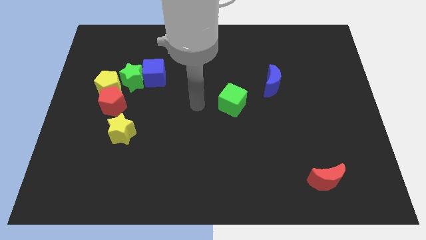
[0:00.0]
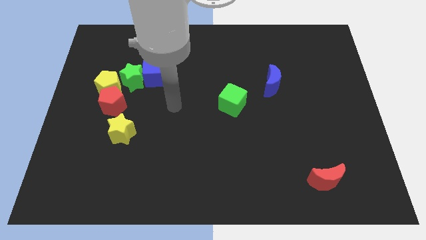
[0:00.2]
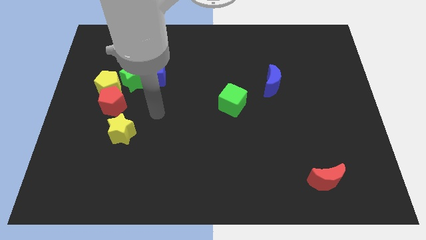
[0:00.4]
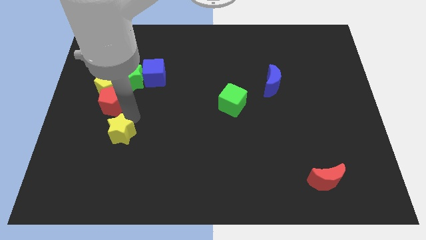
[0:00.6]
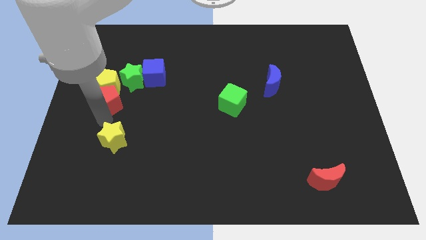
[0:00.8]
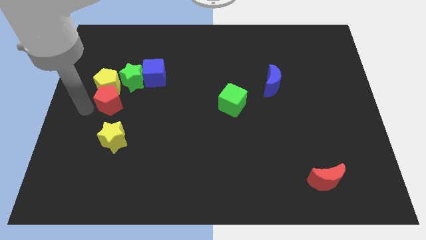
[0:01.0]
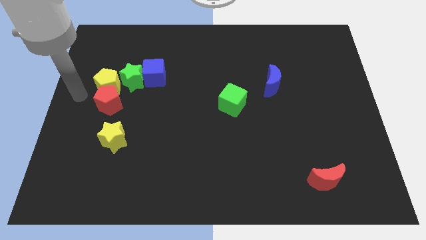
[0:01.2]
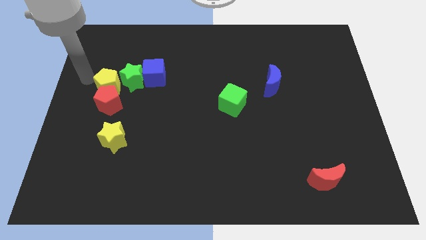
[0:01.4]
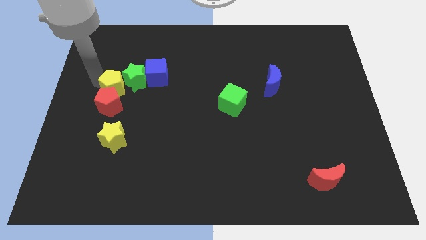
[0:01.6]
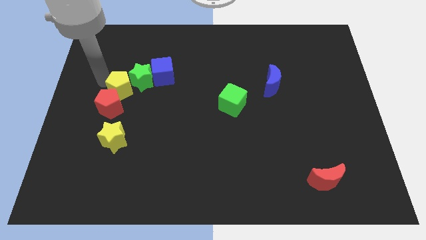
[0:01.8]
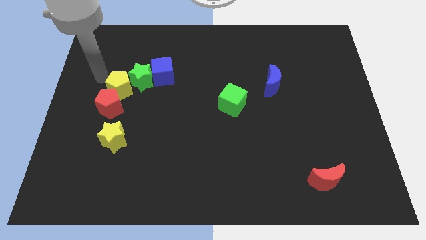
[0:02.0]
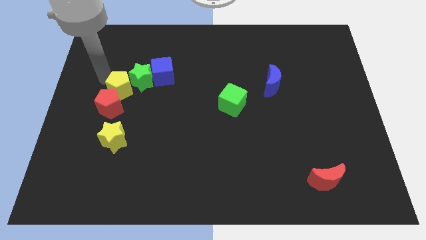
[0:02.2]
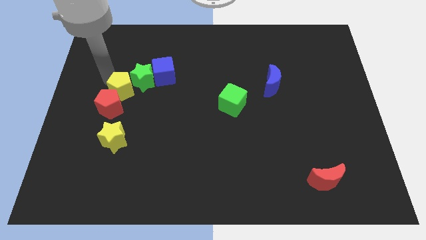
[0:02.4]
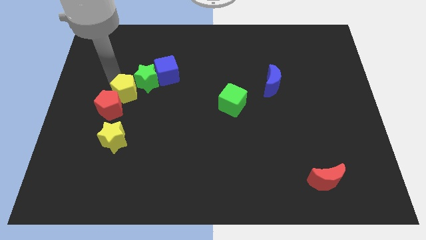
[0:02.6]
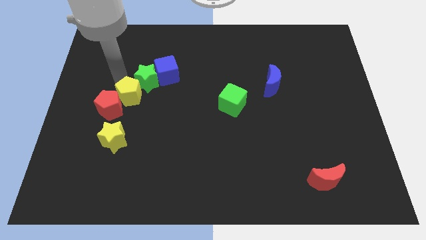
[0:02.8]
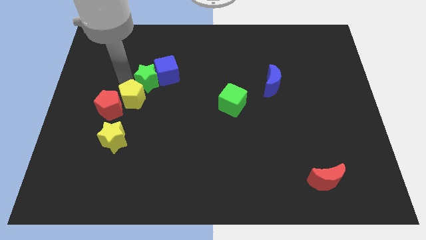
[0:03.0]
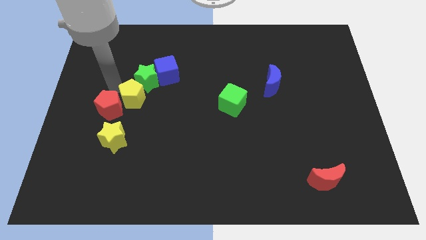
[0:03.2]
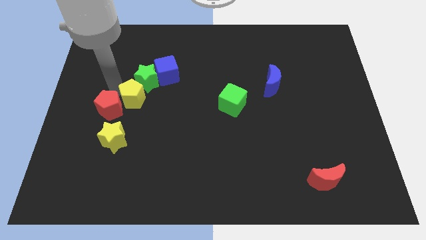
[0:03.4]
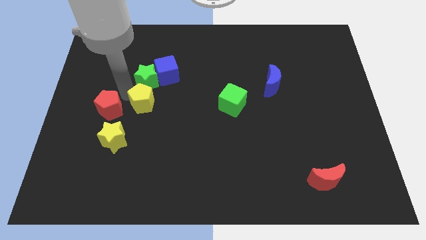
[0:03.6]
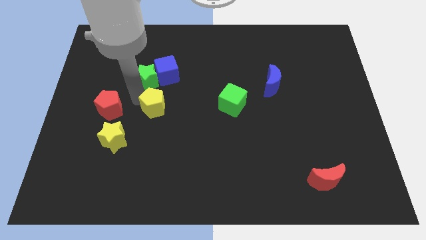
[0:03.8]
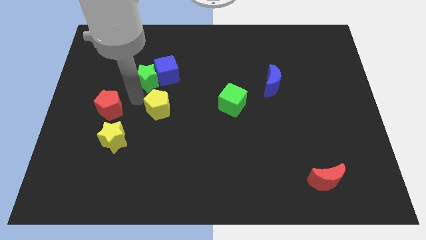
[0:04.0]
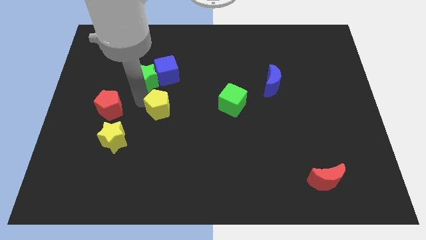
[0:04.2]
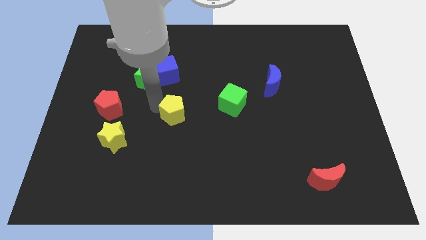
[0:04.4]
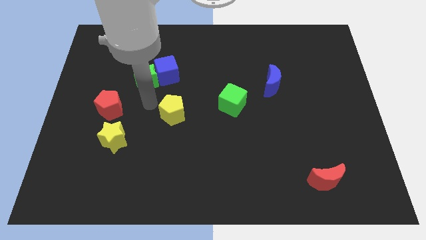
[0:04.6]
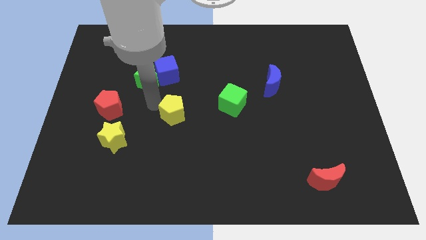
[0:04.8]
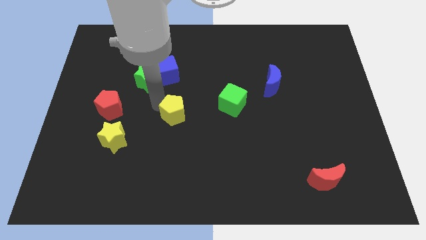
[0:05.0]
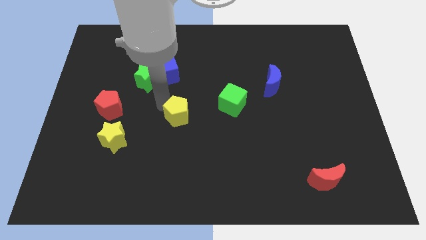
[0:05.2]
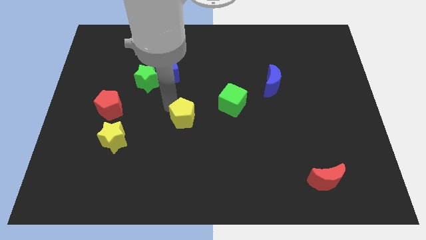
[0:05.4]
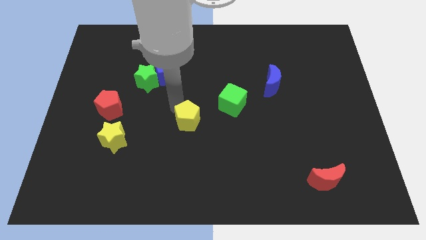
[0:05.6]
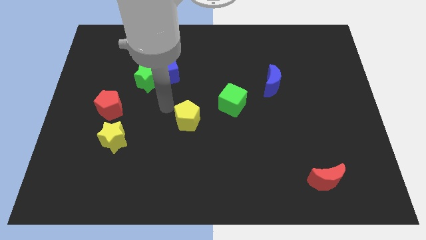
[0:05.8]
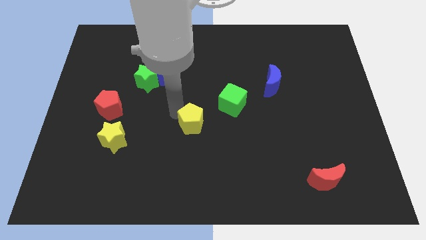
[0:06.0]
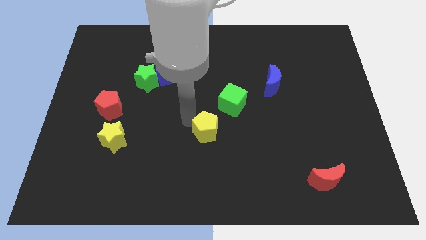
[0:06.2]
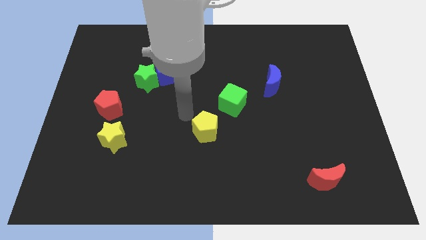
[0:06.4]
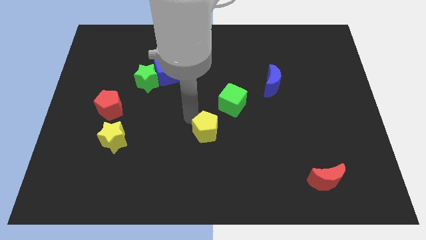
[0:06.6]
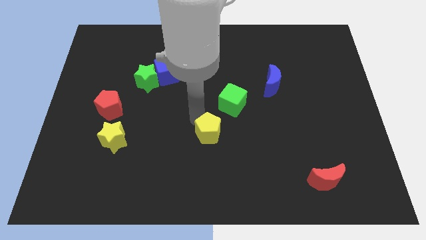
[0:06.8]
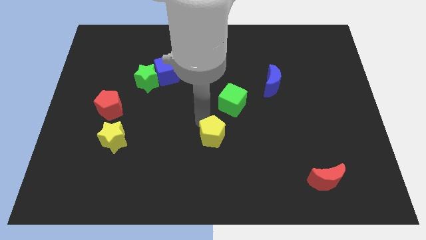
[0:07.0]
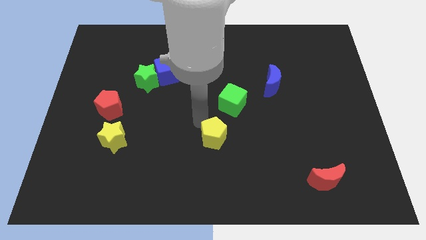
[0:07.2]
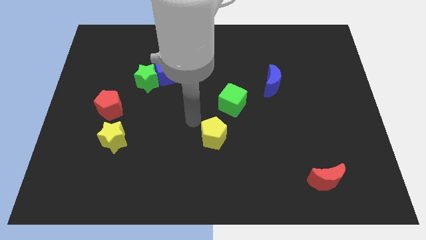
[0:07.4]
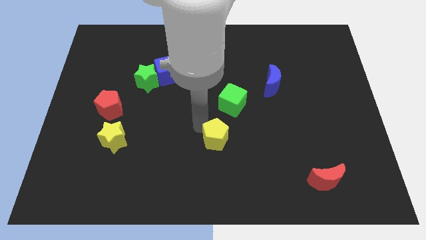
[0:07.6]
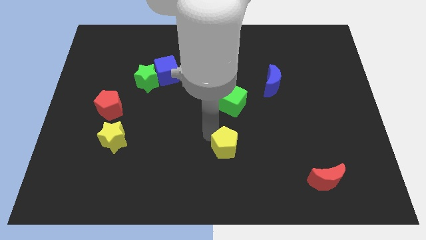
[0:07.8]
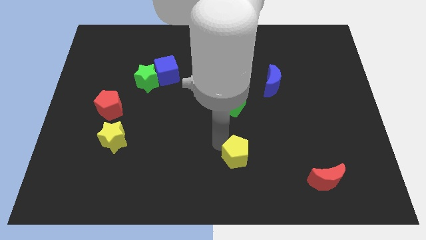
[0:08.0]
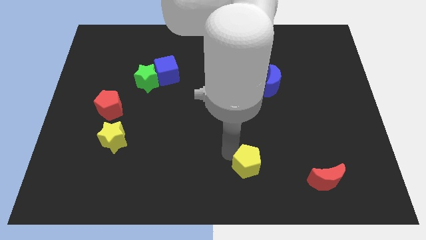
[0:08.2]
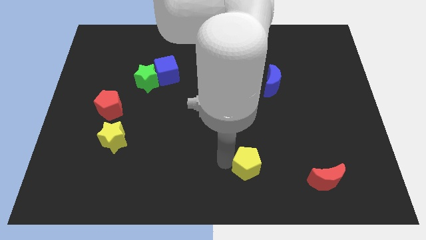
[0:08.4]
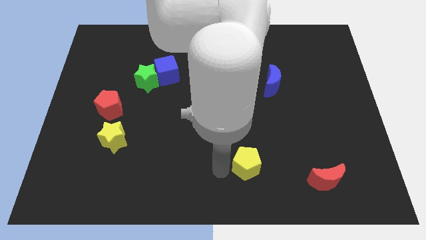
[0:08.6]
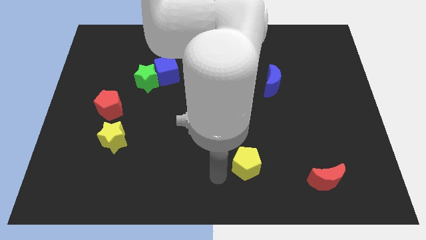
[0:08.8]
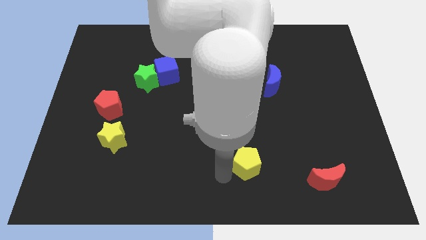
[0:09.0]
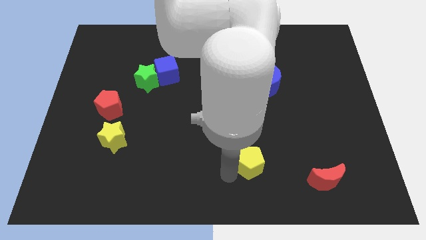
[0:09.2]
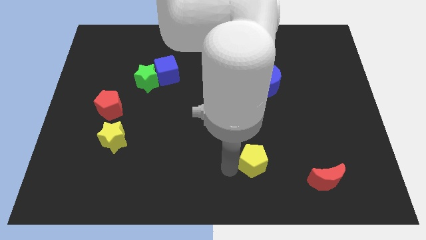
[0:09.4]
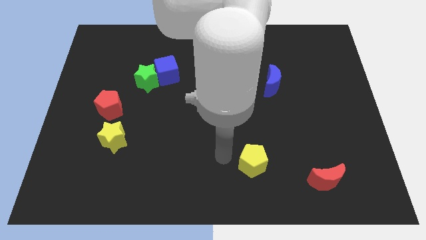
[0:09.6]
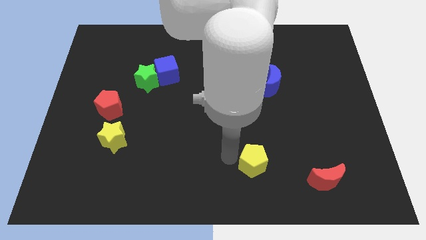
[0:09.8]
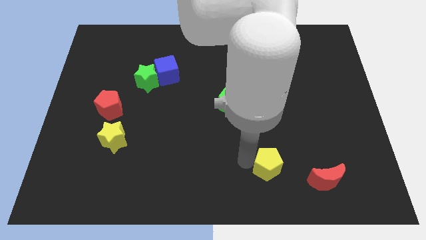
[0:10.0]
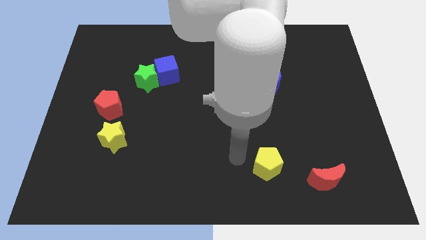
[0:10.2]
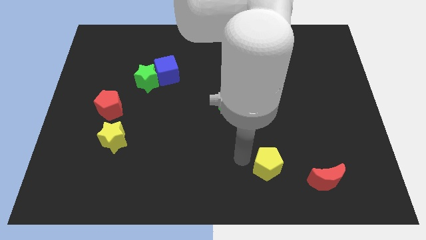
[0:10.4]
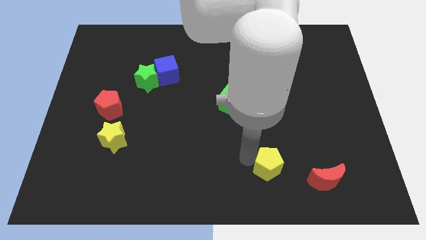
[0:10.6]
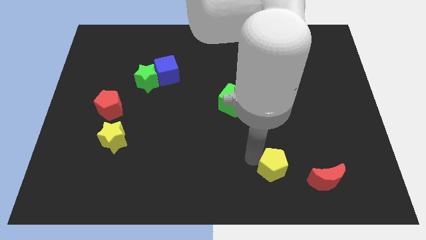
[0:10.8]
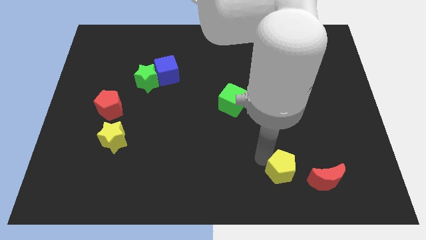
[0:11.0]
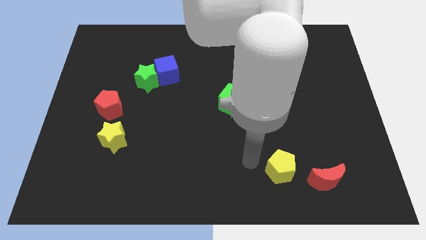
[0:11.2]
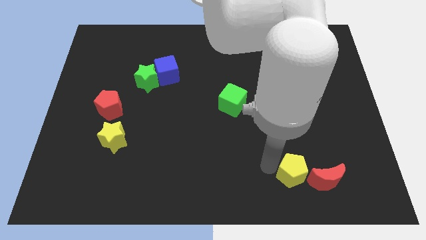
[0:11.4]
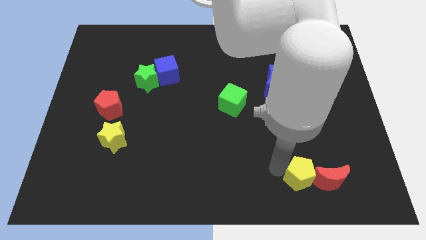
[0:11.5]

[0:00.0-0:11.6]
push the yellow pentagon next to the red moon

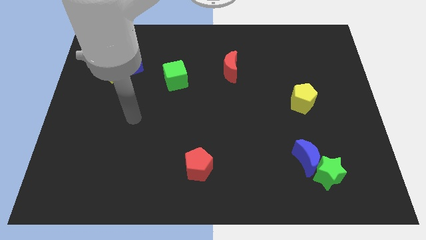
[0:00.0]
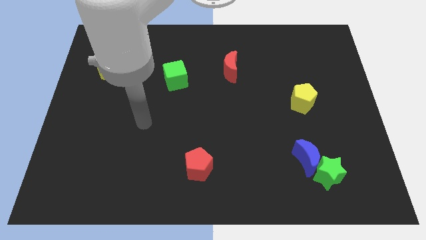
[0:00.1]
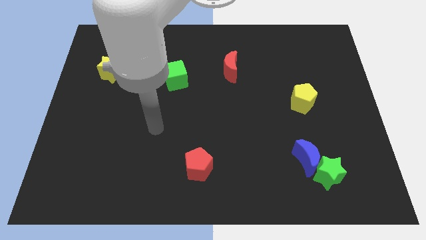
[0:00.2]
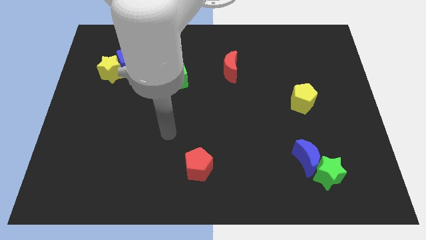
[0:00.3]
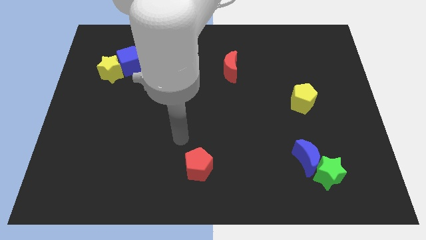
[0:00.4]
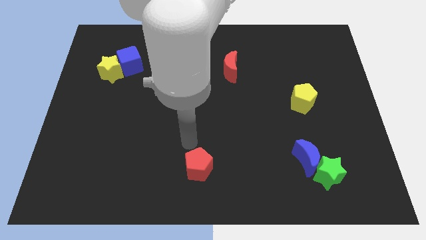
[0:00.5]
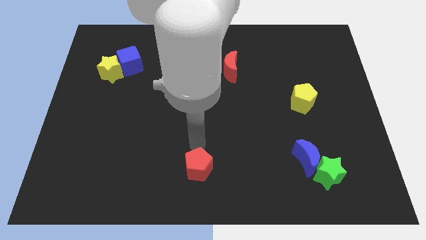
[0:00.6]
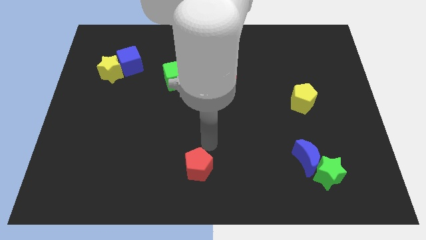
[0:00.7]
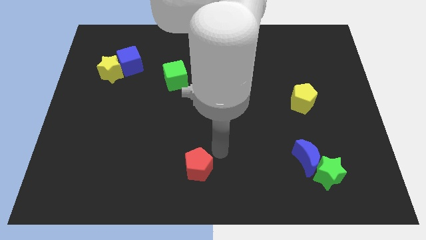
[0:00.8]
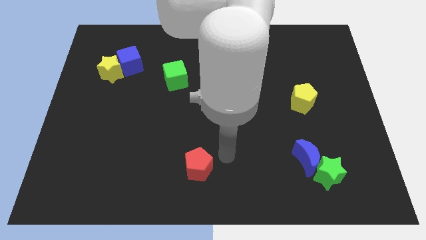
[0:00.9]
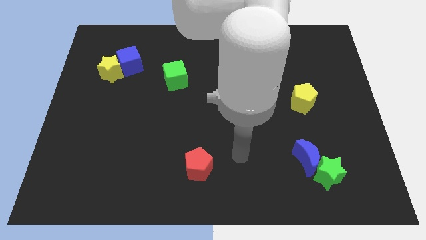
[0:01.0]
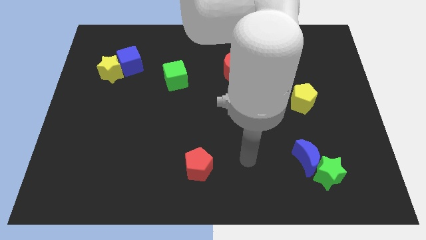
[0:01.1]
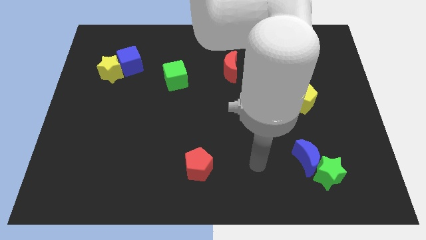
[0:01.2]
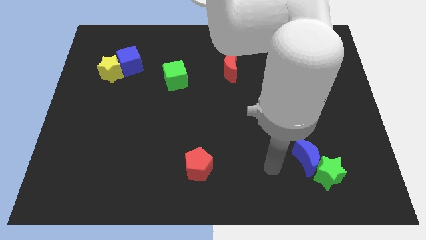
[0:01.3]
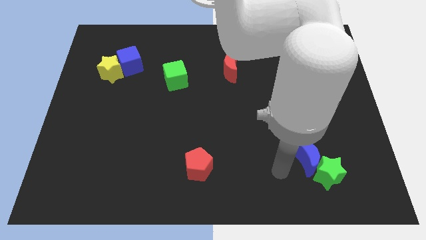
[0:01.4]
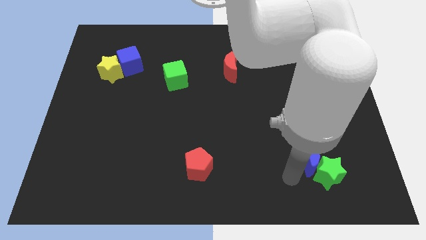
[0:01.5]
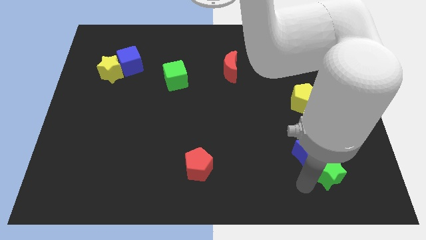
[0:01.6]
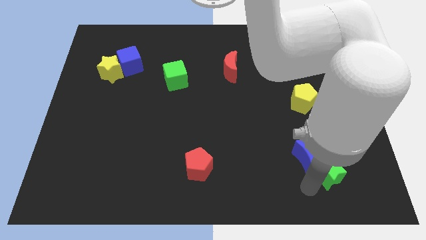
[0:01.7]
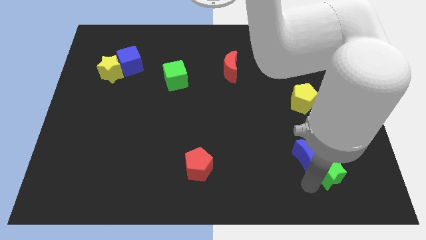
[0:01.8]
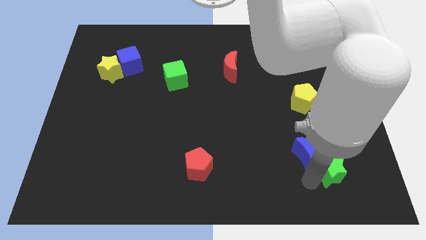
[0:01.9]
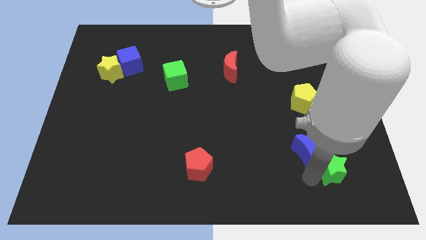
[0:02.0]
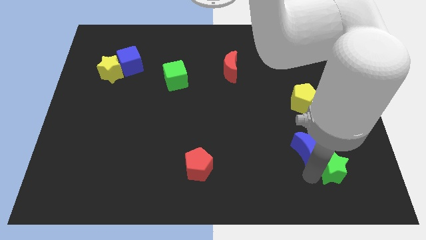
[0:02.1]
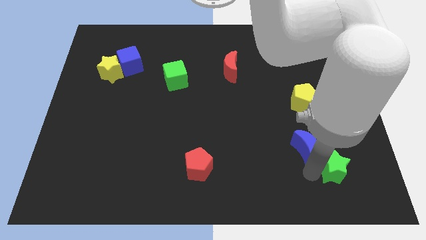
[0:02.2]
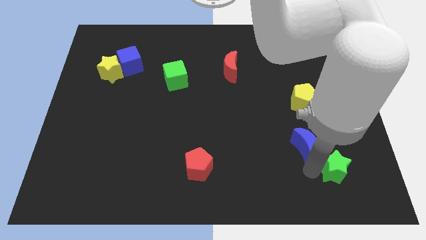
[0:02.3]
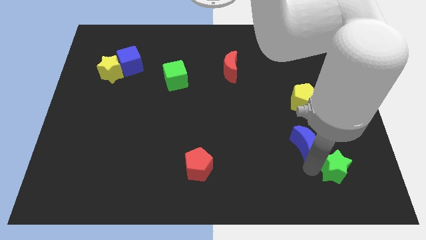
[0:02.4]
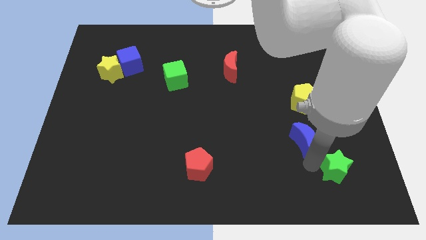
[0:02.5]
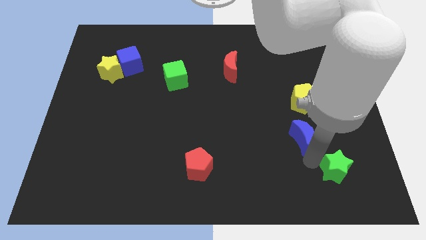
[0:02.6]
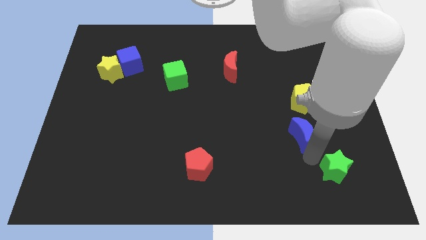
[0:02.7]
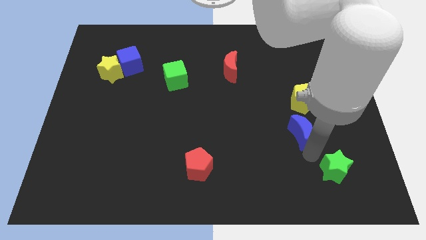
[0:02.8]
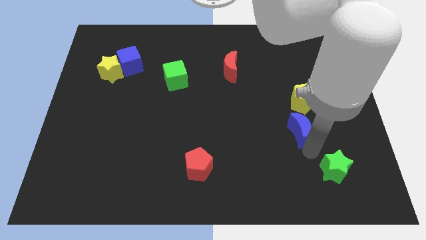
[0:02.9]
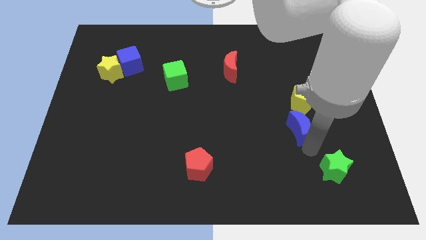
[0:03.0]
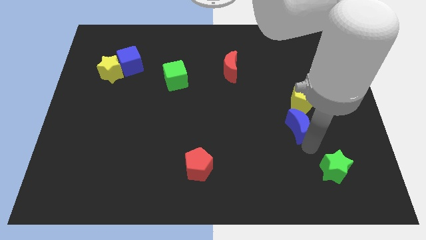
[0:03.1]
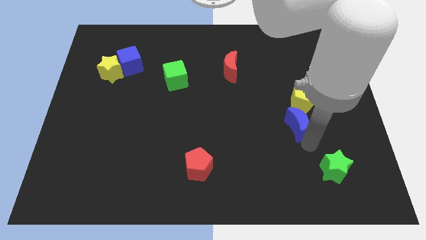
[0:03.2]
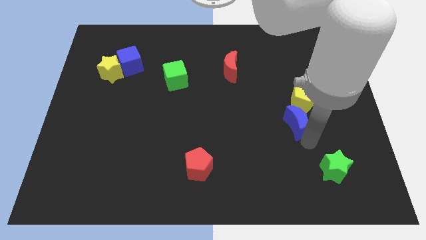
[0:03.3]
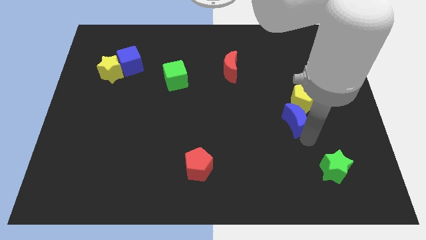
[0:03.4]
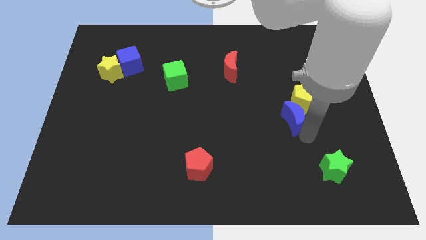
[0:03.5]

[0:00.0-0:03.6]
slide the blue moon close to the yellow pentagon
